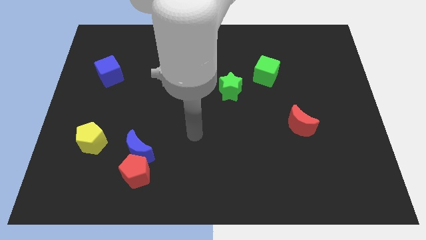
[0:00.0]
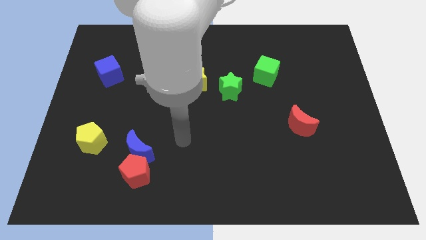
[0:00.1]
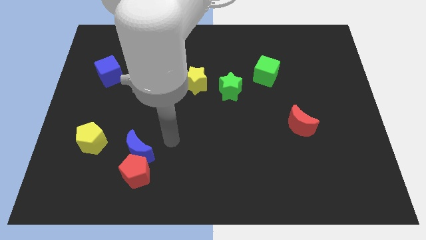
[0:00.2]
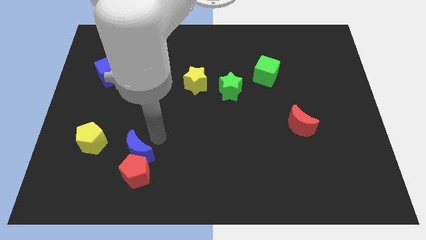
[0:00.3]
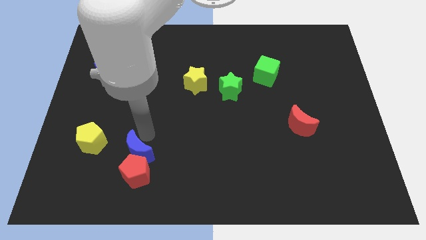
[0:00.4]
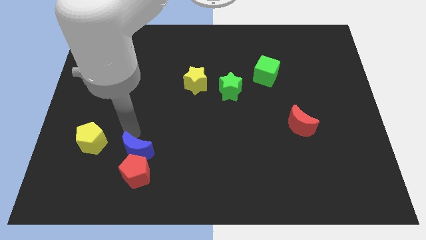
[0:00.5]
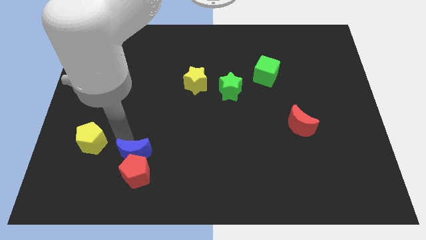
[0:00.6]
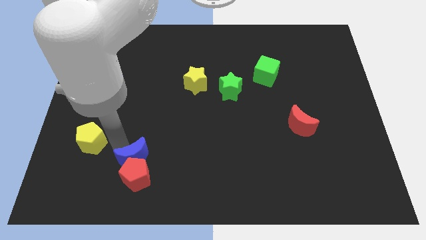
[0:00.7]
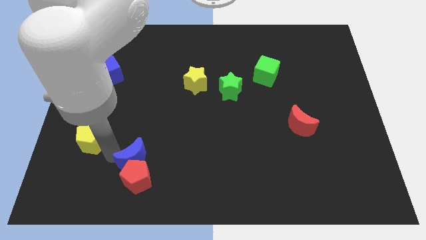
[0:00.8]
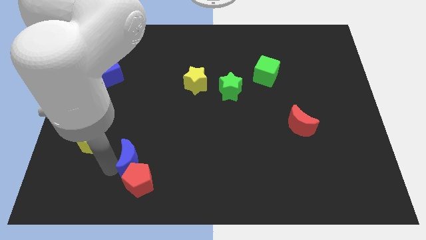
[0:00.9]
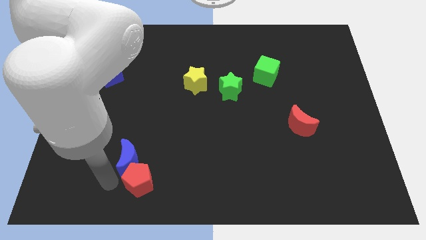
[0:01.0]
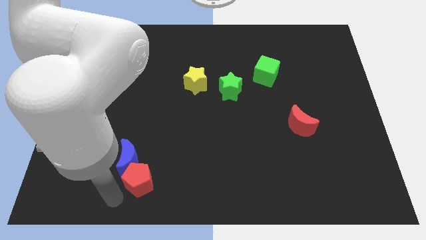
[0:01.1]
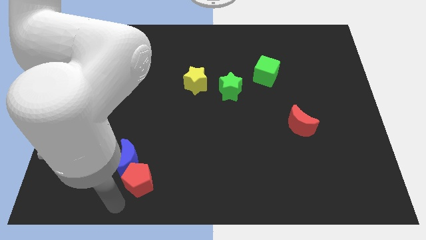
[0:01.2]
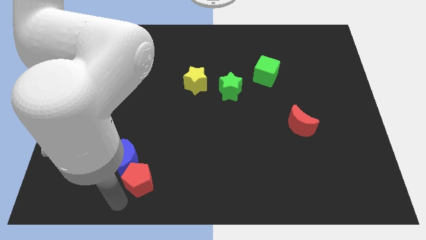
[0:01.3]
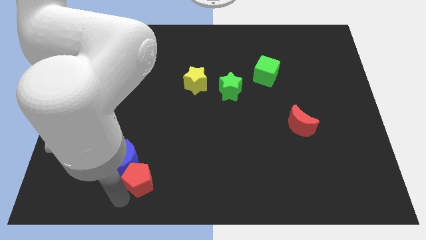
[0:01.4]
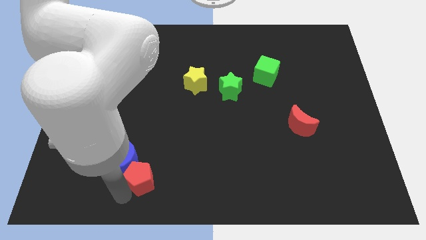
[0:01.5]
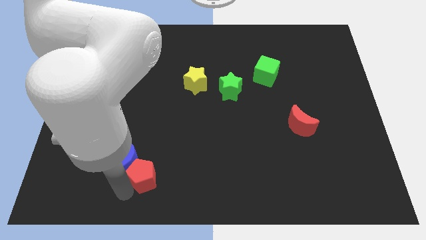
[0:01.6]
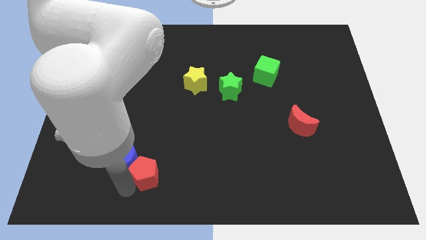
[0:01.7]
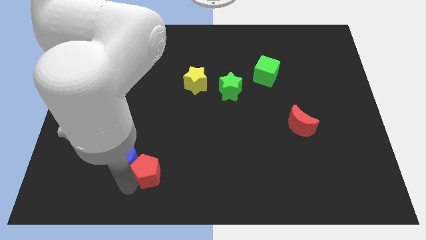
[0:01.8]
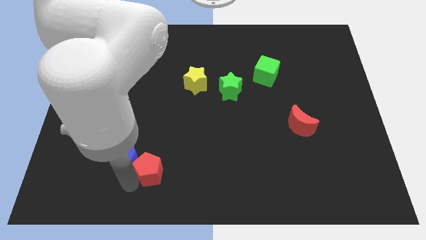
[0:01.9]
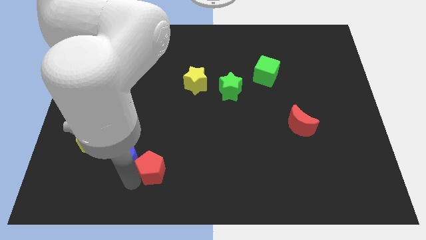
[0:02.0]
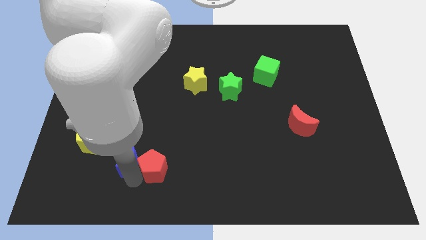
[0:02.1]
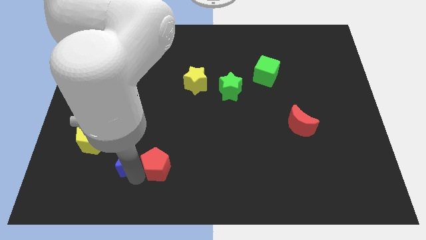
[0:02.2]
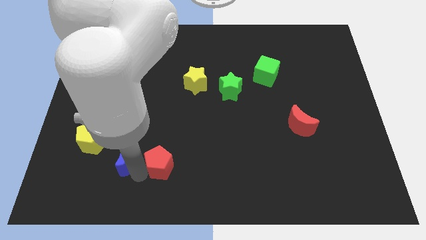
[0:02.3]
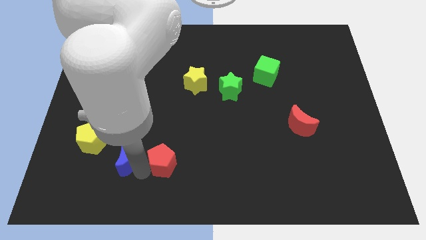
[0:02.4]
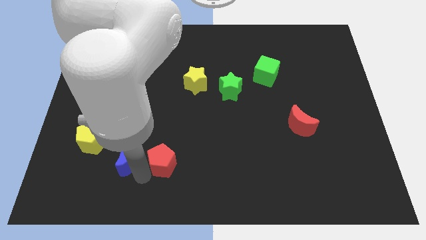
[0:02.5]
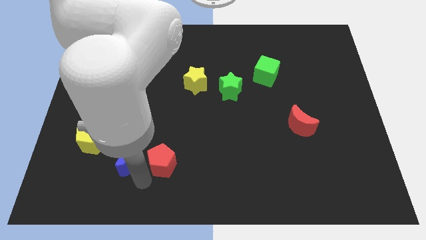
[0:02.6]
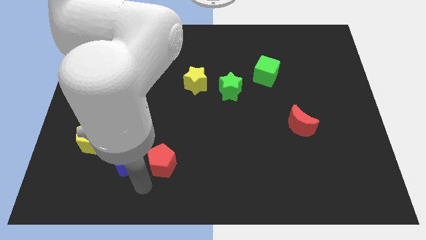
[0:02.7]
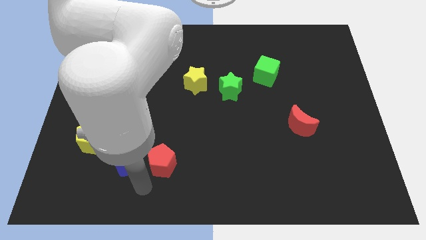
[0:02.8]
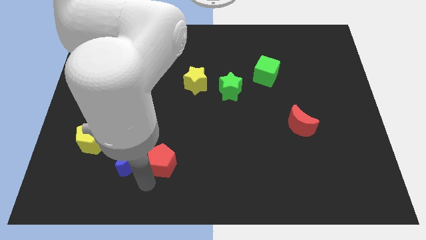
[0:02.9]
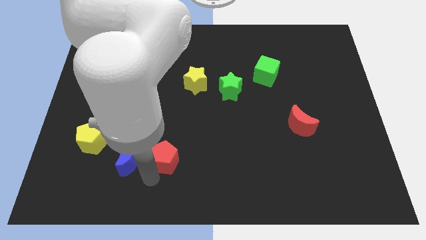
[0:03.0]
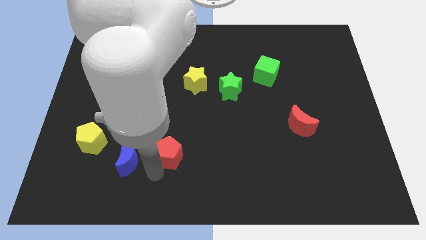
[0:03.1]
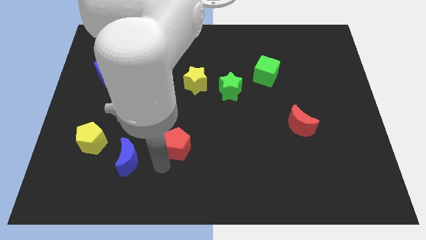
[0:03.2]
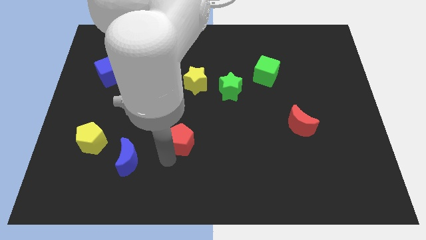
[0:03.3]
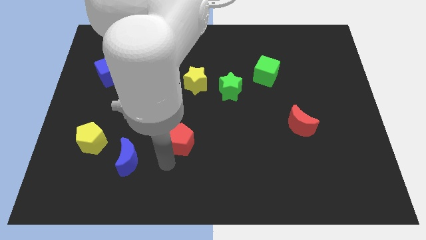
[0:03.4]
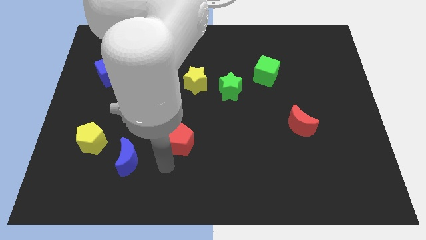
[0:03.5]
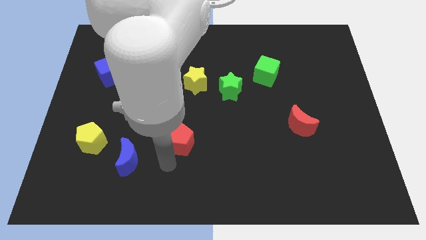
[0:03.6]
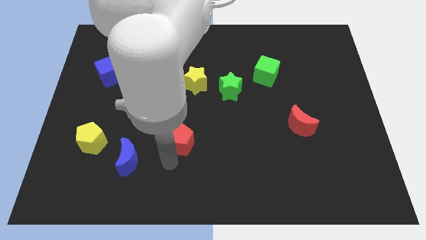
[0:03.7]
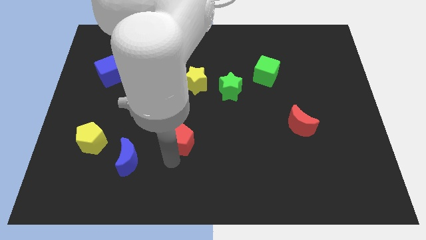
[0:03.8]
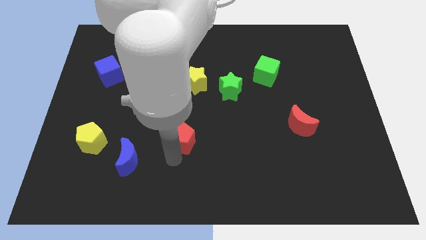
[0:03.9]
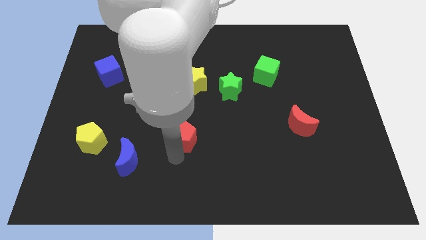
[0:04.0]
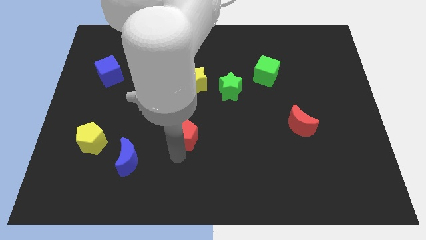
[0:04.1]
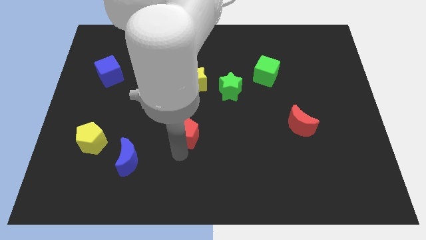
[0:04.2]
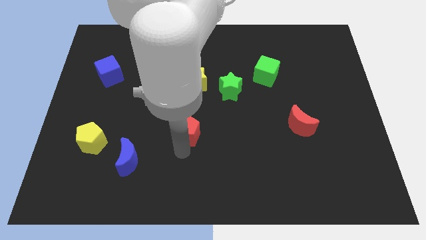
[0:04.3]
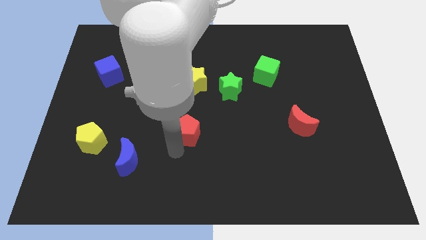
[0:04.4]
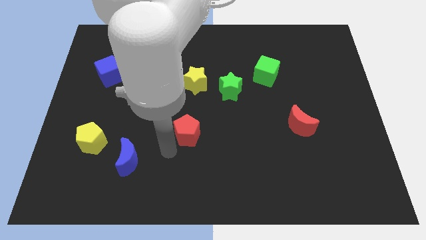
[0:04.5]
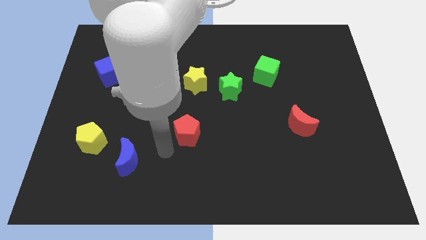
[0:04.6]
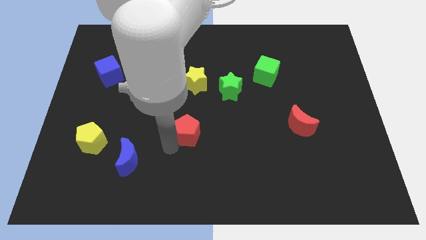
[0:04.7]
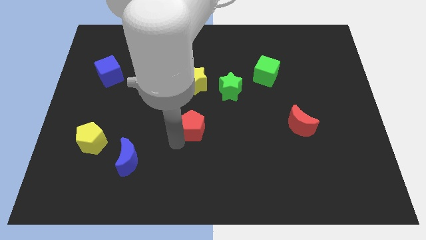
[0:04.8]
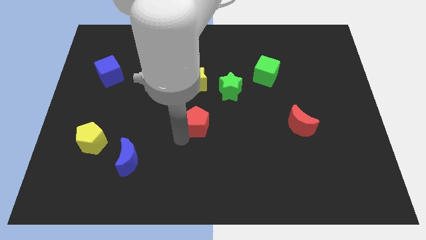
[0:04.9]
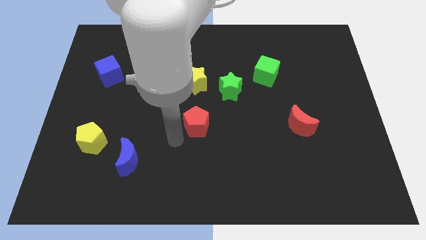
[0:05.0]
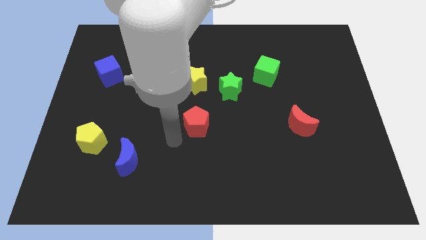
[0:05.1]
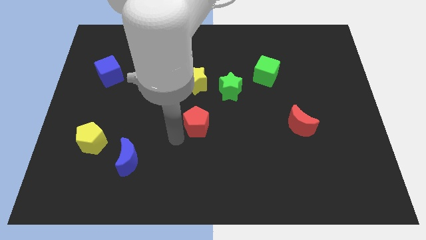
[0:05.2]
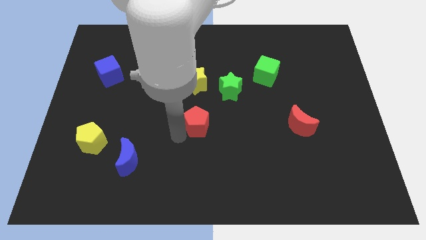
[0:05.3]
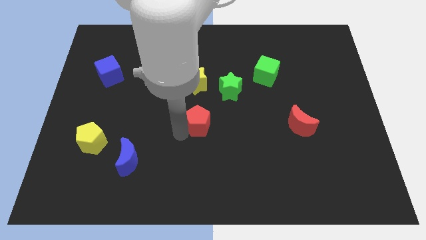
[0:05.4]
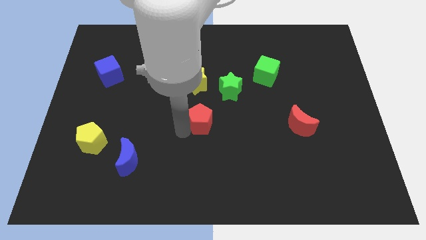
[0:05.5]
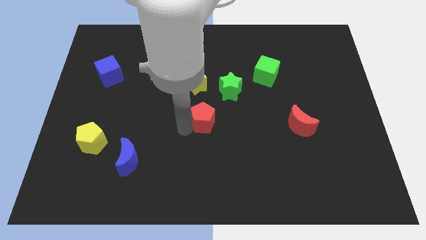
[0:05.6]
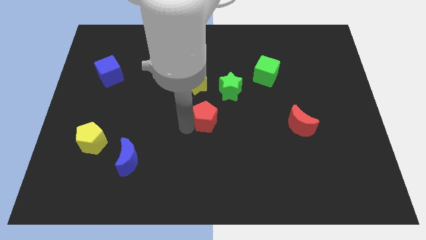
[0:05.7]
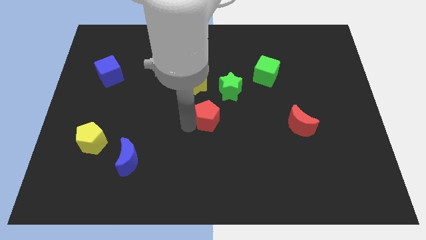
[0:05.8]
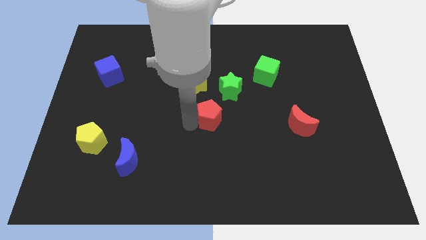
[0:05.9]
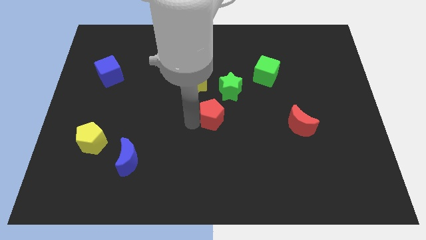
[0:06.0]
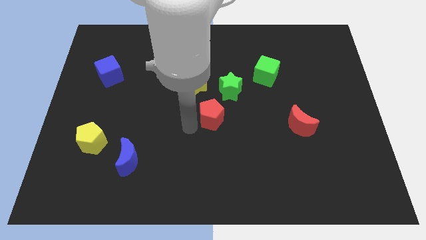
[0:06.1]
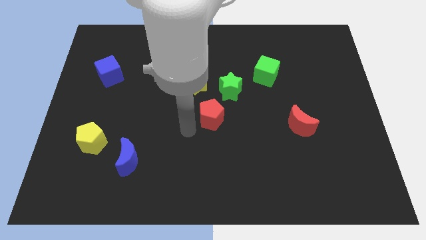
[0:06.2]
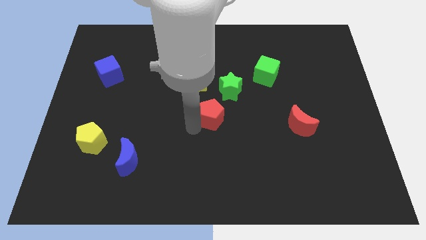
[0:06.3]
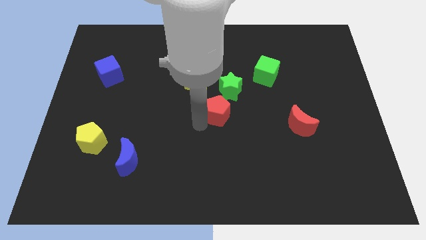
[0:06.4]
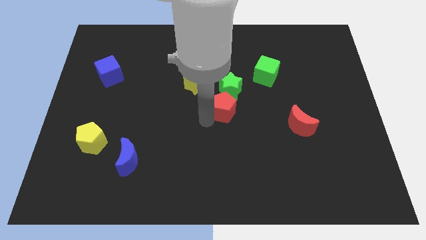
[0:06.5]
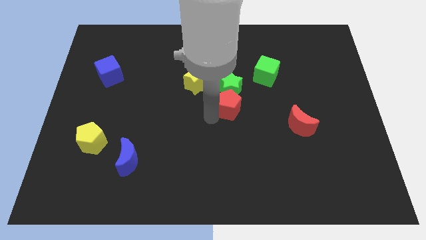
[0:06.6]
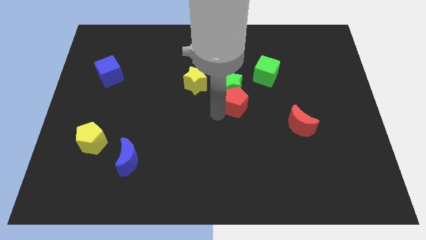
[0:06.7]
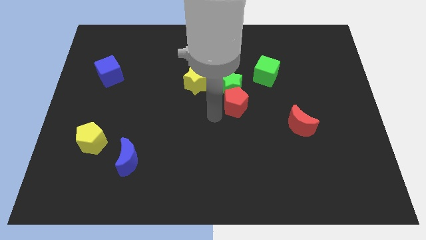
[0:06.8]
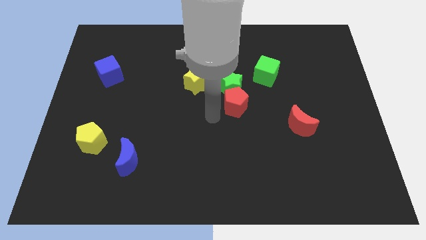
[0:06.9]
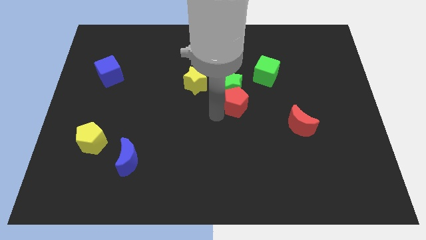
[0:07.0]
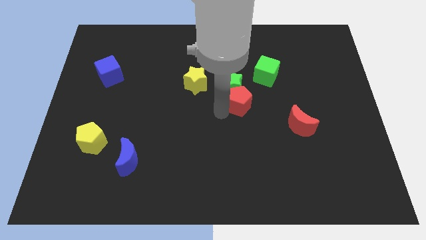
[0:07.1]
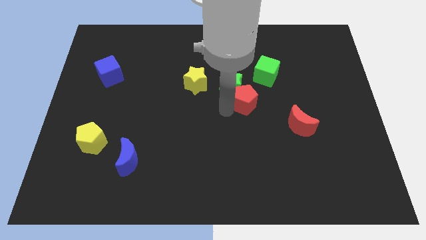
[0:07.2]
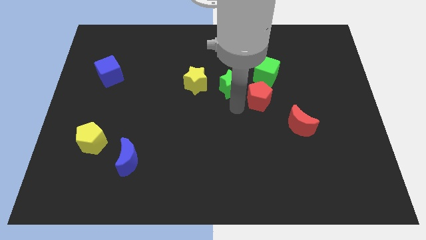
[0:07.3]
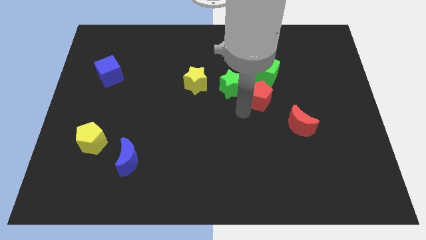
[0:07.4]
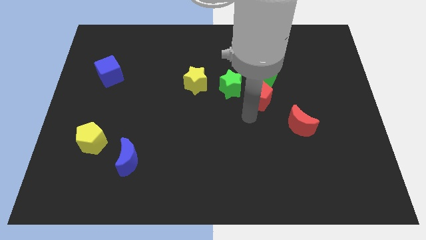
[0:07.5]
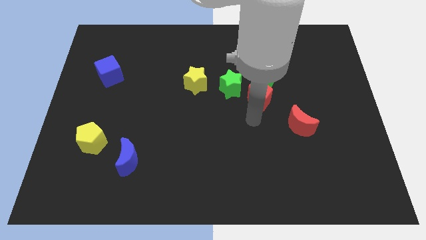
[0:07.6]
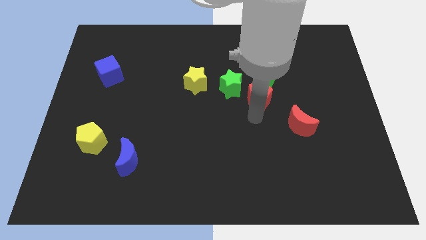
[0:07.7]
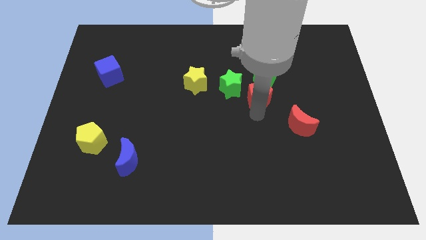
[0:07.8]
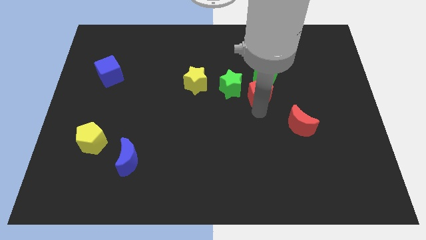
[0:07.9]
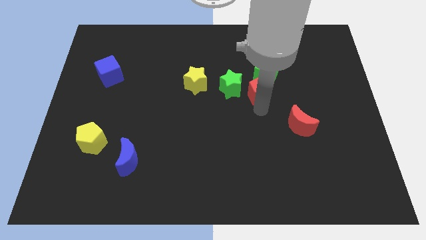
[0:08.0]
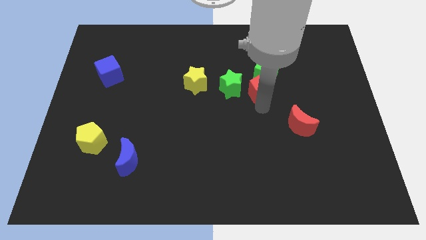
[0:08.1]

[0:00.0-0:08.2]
push the red pentagon towards the green cube
